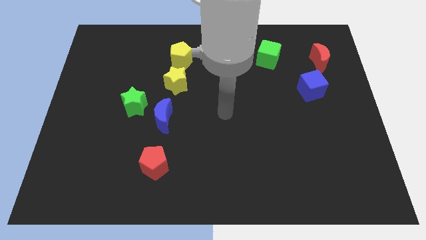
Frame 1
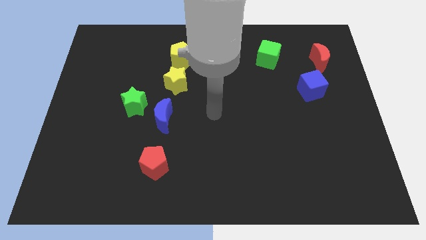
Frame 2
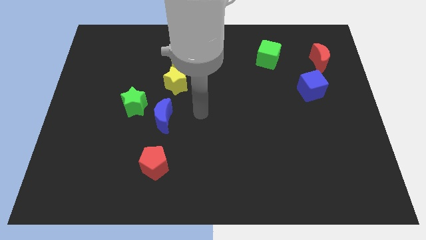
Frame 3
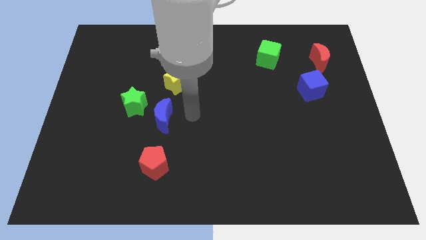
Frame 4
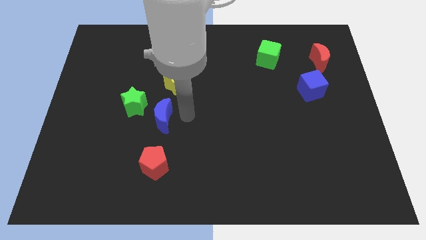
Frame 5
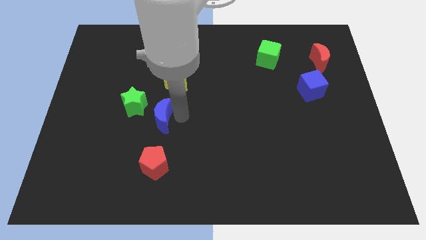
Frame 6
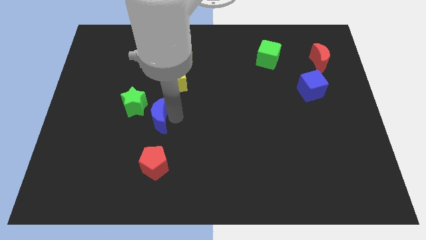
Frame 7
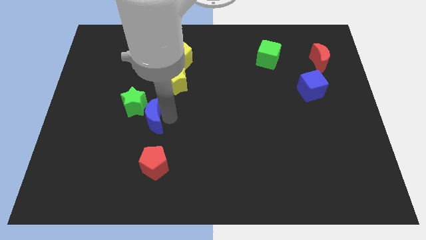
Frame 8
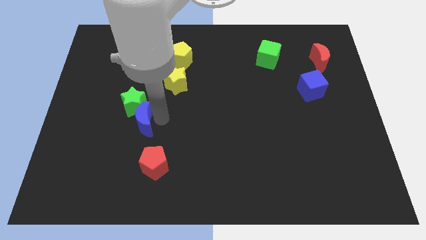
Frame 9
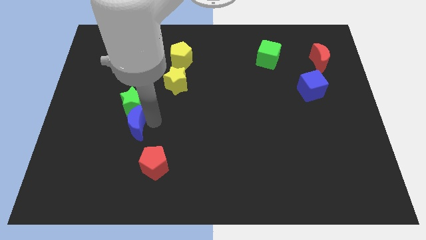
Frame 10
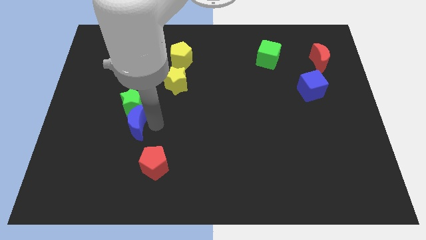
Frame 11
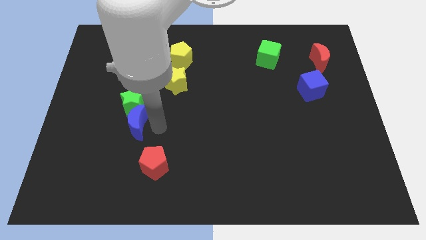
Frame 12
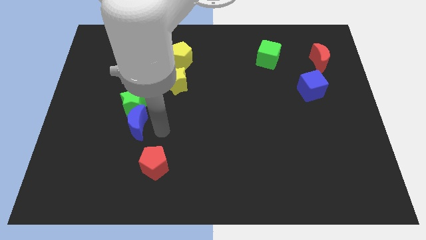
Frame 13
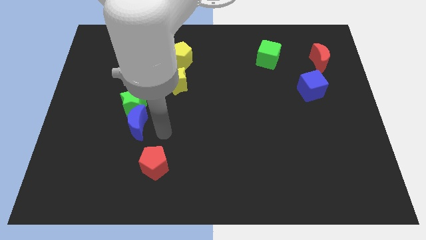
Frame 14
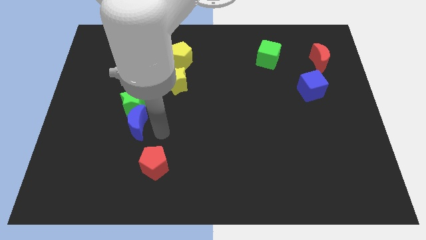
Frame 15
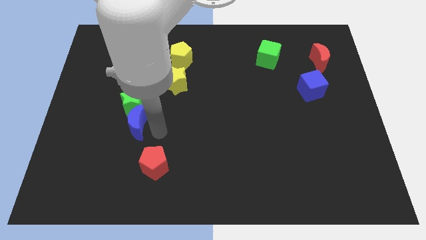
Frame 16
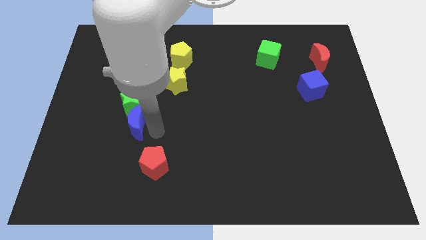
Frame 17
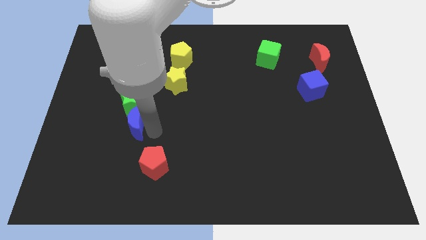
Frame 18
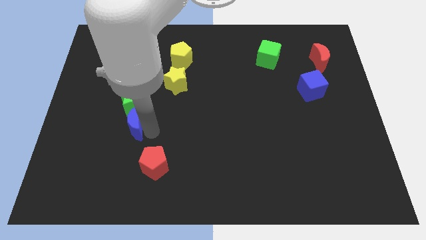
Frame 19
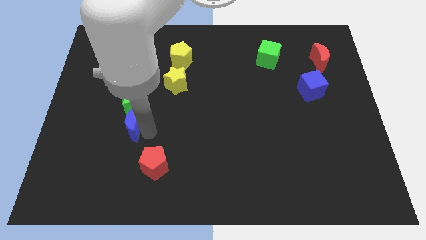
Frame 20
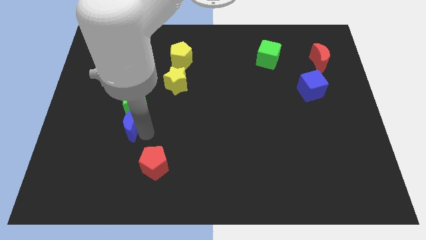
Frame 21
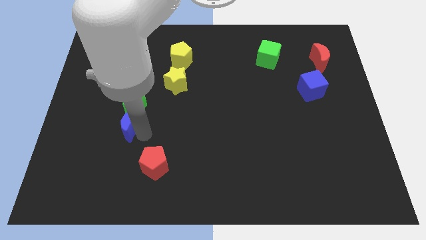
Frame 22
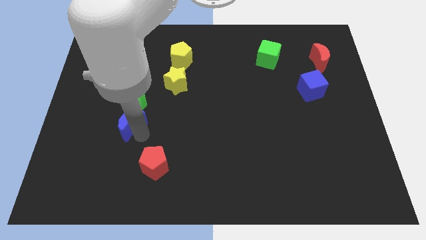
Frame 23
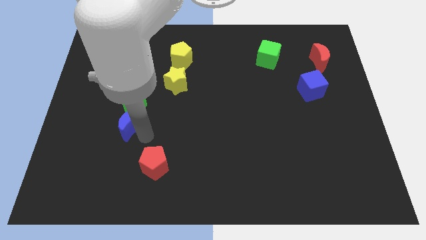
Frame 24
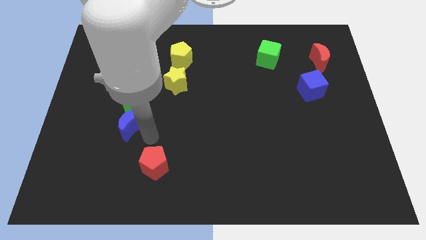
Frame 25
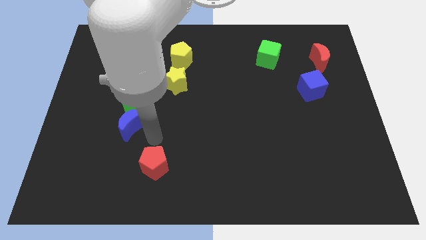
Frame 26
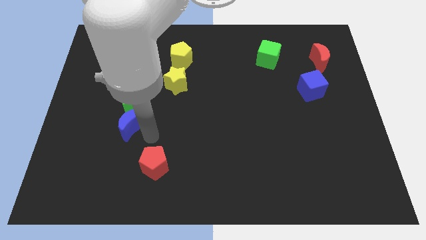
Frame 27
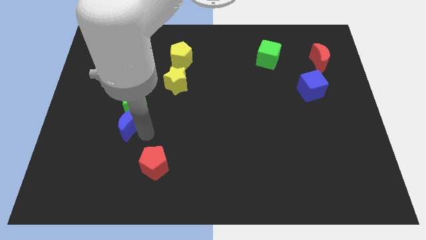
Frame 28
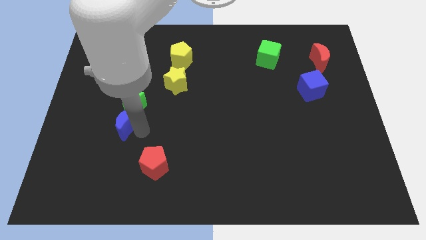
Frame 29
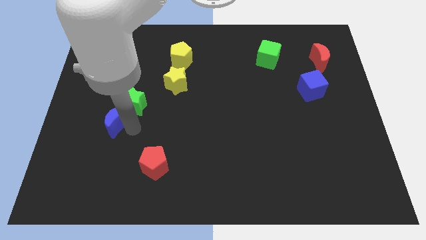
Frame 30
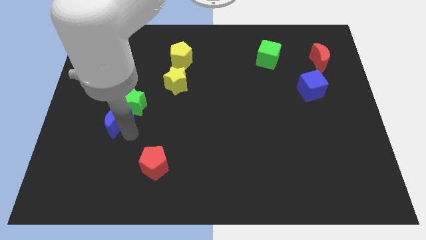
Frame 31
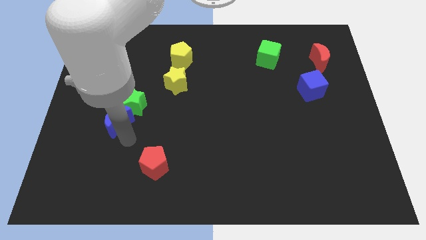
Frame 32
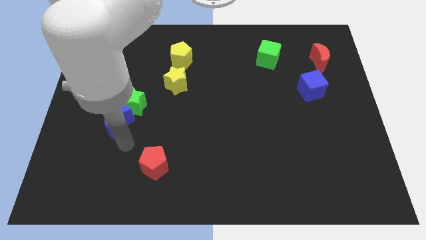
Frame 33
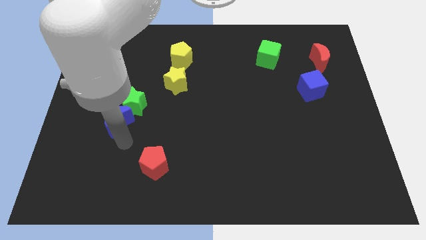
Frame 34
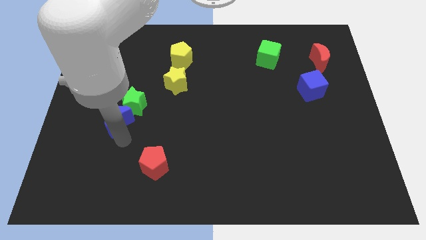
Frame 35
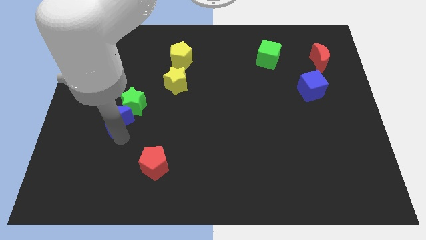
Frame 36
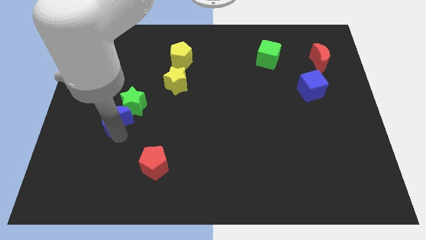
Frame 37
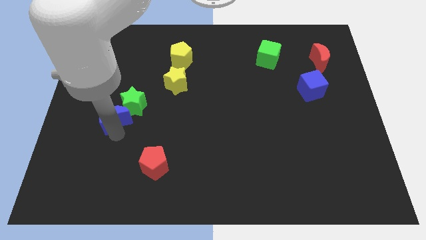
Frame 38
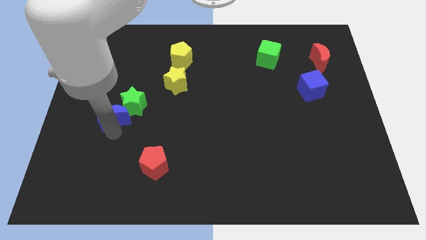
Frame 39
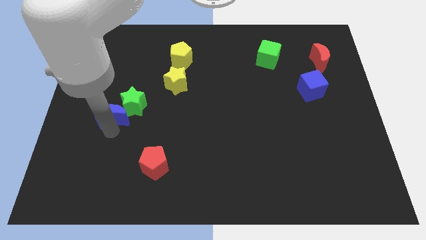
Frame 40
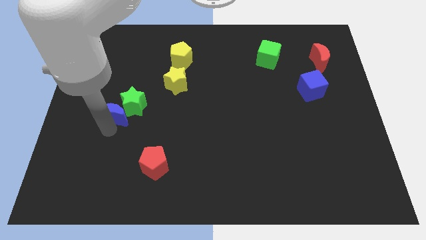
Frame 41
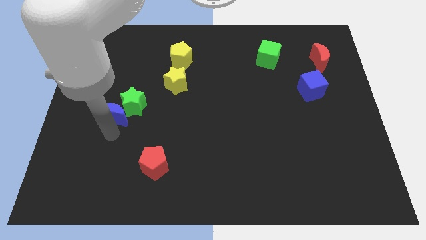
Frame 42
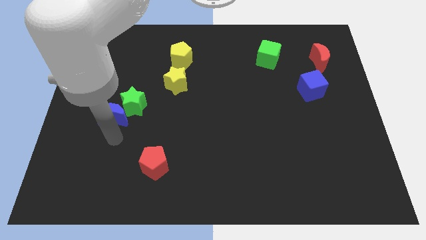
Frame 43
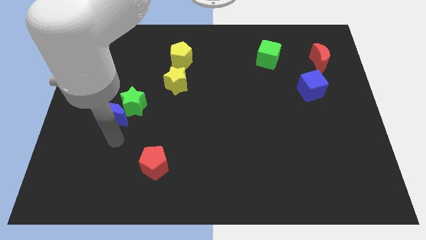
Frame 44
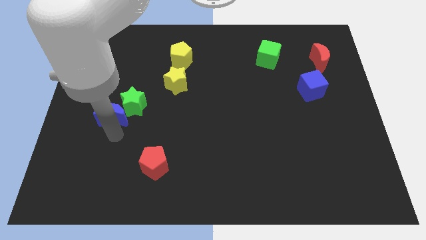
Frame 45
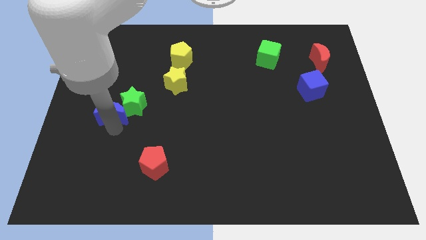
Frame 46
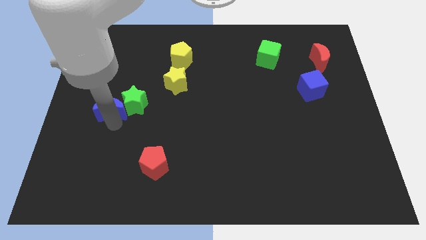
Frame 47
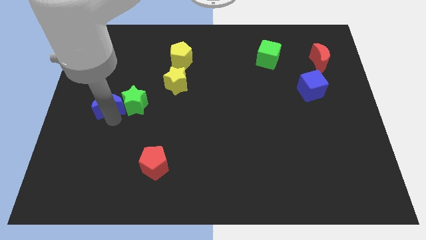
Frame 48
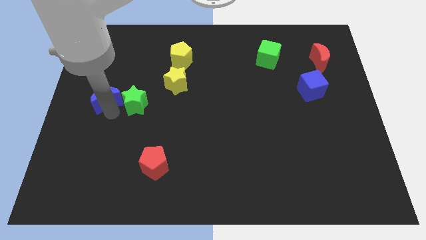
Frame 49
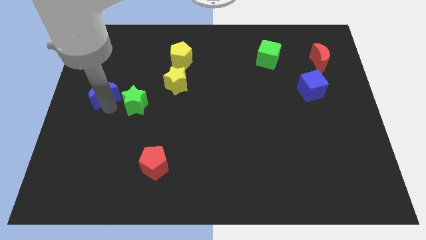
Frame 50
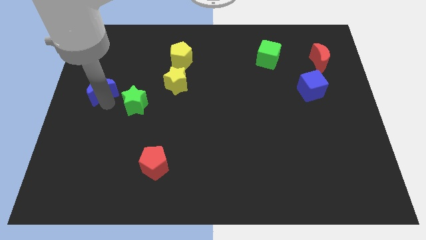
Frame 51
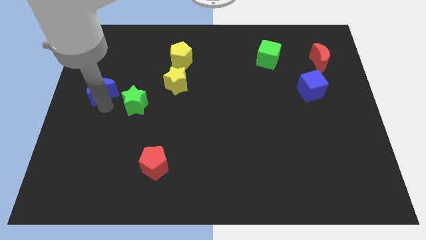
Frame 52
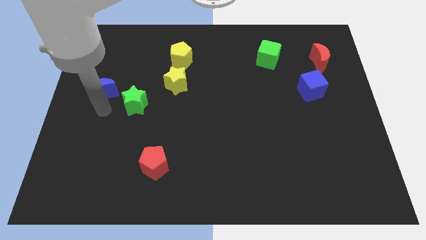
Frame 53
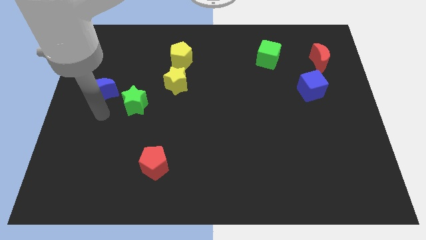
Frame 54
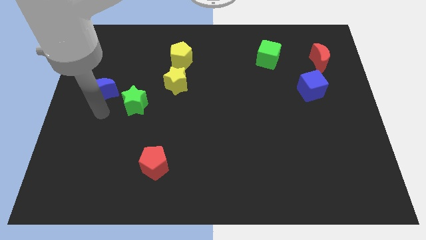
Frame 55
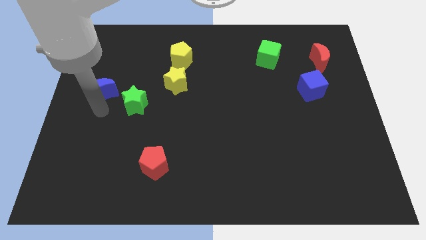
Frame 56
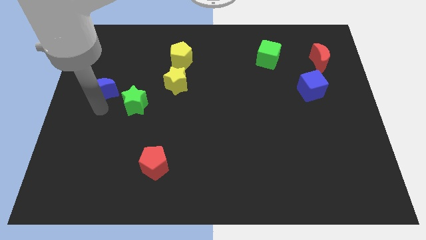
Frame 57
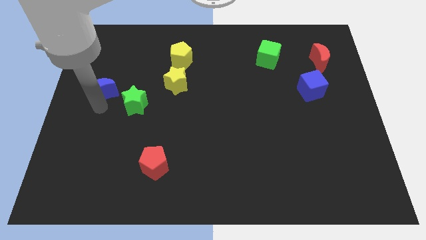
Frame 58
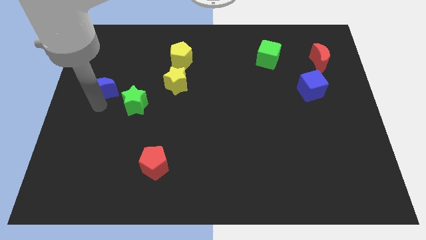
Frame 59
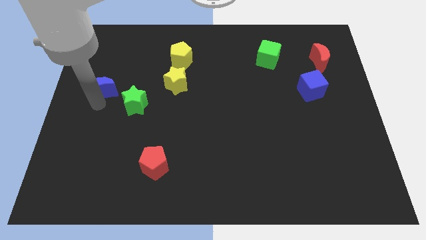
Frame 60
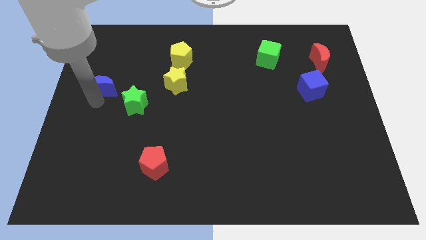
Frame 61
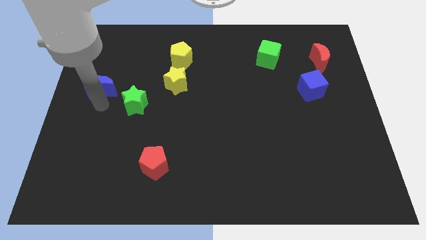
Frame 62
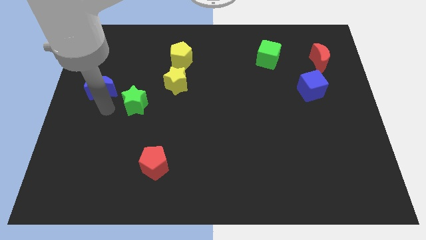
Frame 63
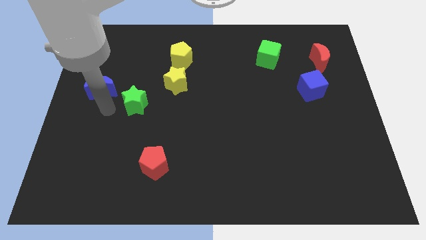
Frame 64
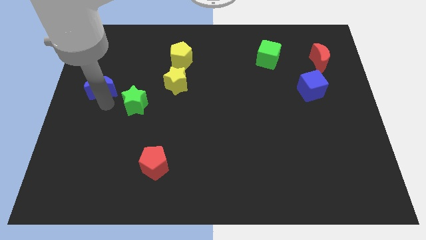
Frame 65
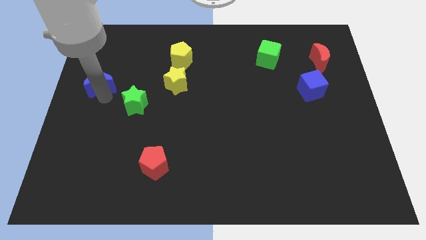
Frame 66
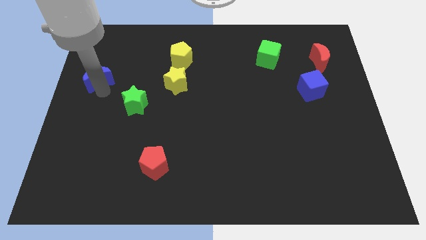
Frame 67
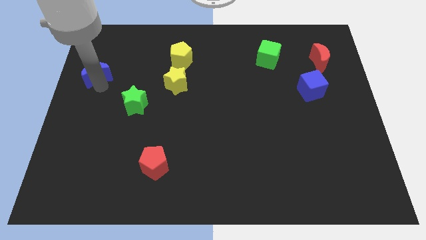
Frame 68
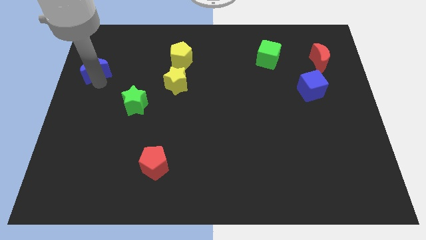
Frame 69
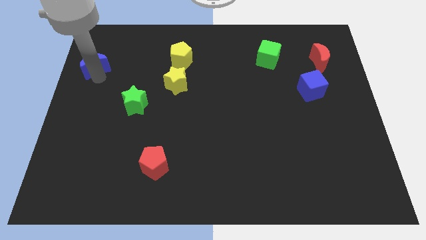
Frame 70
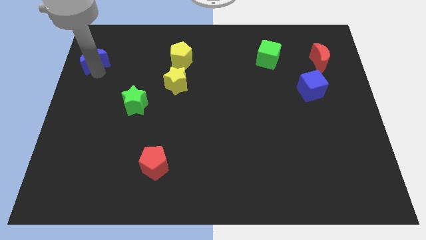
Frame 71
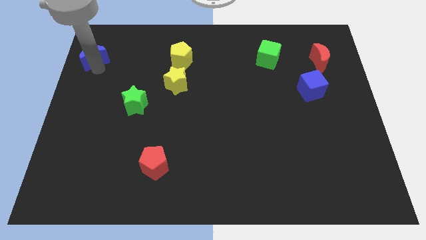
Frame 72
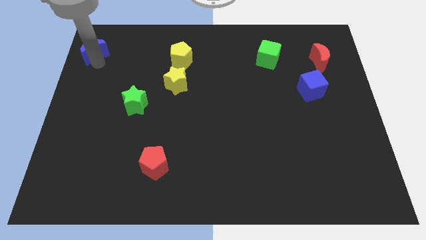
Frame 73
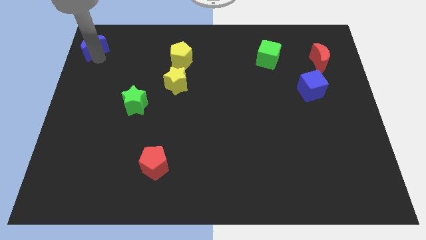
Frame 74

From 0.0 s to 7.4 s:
put the blue moon to the top left of the board
